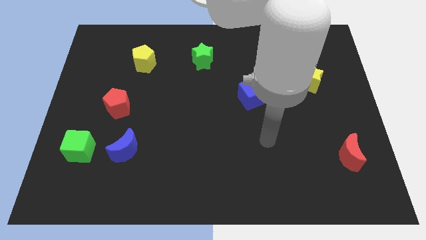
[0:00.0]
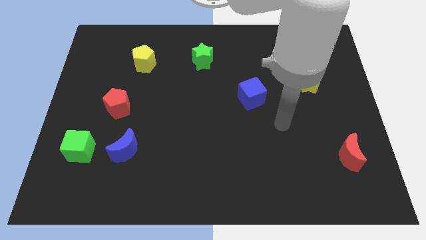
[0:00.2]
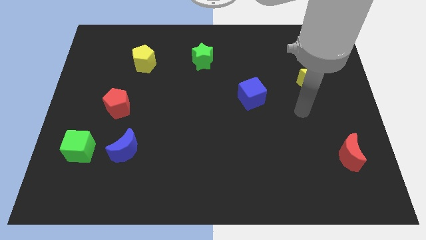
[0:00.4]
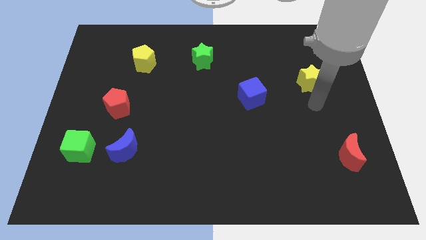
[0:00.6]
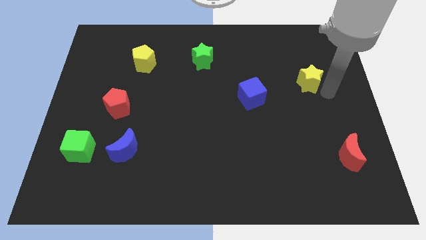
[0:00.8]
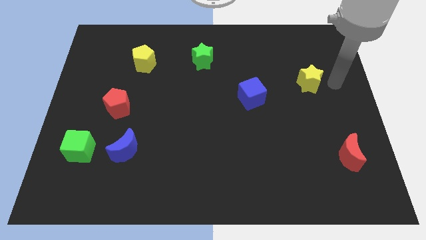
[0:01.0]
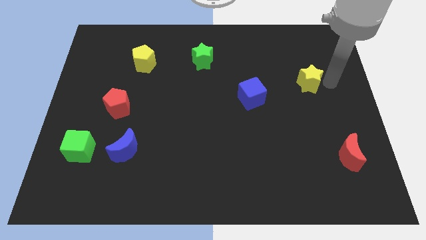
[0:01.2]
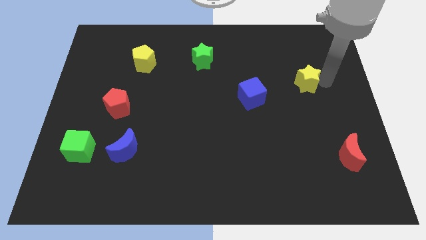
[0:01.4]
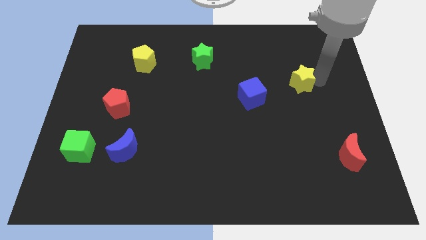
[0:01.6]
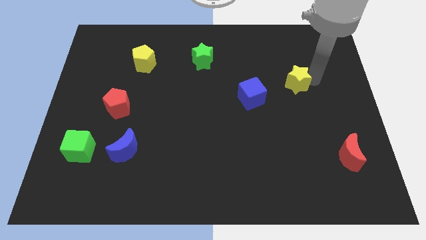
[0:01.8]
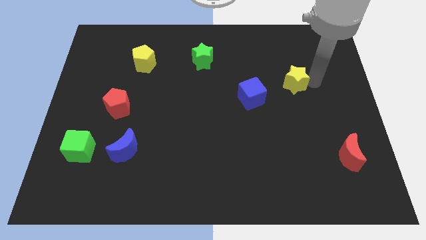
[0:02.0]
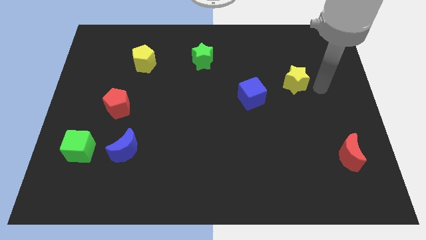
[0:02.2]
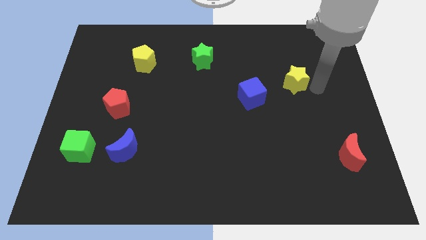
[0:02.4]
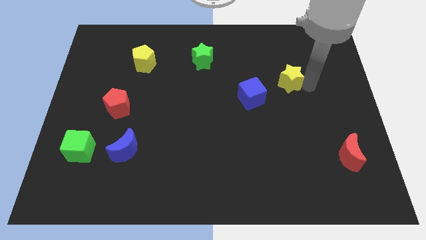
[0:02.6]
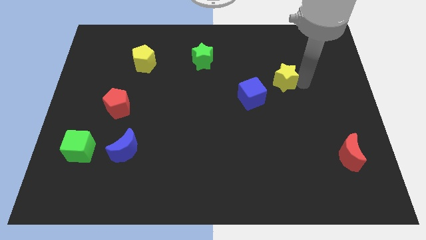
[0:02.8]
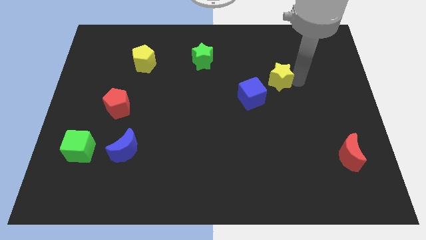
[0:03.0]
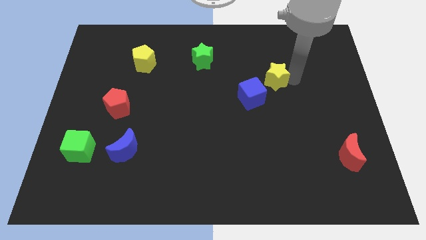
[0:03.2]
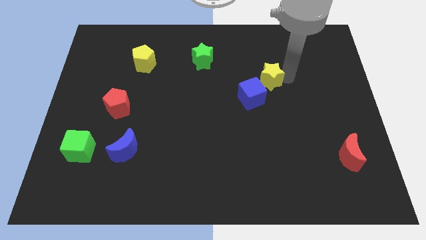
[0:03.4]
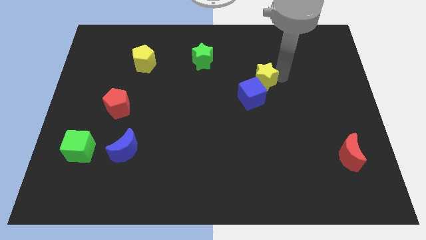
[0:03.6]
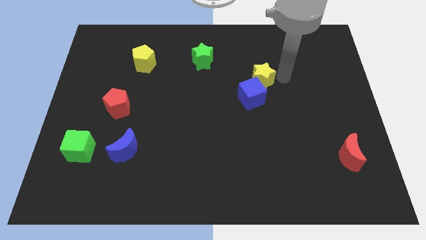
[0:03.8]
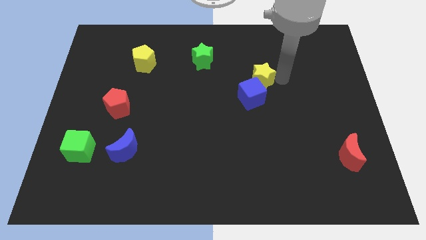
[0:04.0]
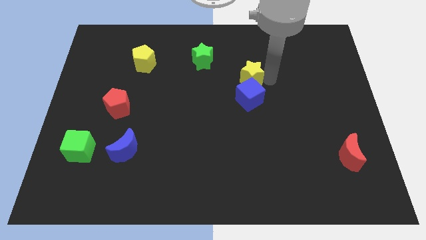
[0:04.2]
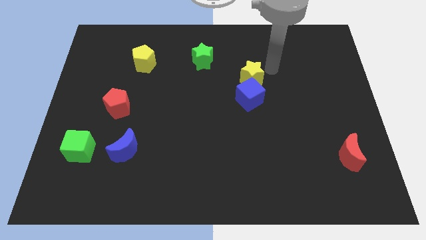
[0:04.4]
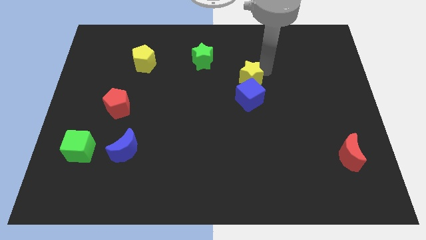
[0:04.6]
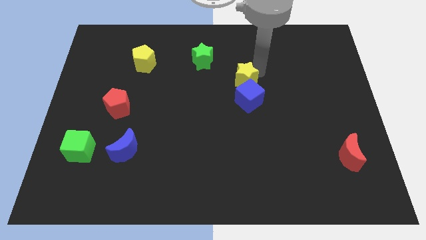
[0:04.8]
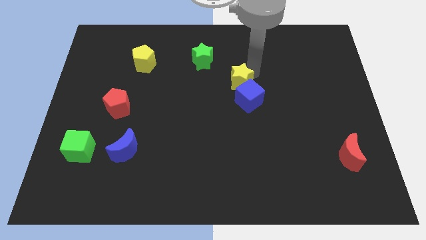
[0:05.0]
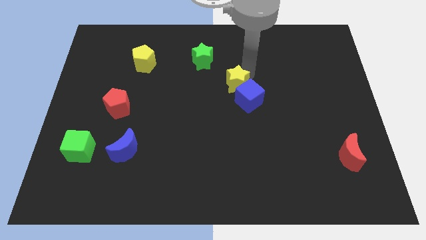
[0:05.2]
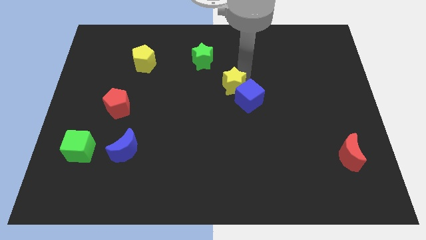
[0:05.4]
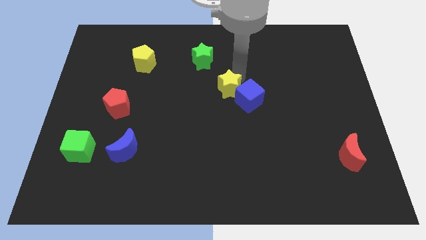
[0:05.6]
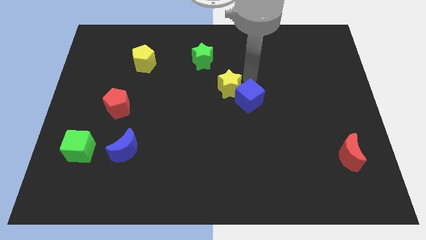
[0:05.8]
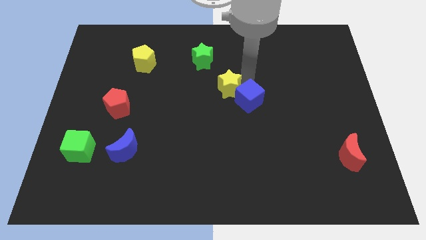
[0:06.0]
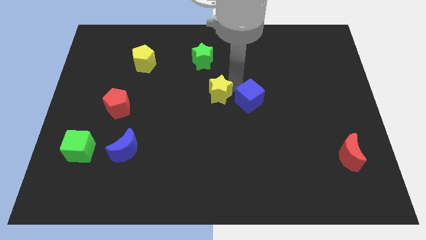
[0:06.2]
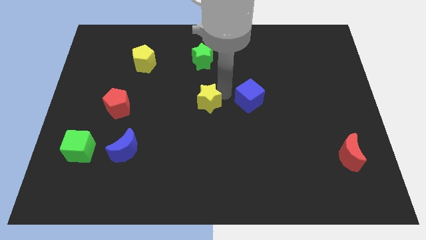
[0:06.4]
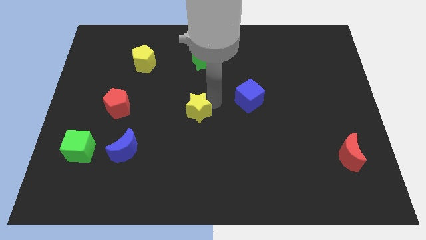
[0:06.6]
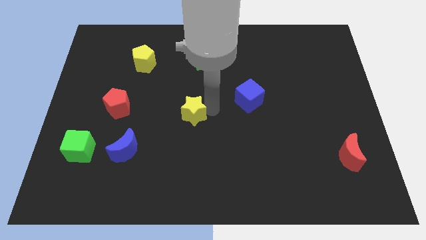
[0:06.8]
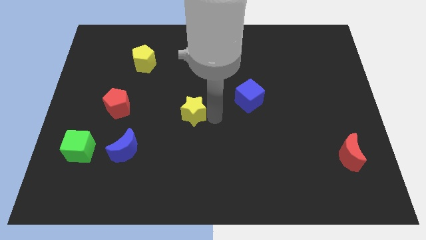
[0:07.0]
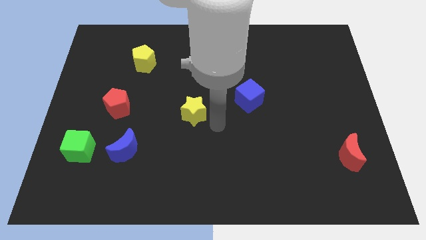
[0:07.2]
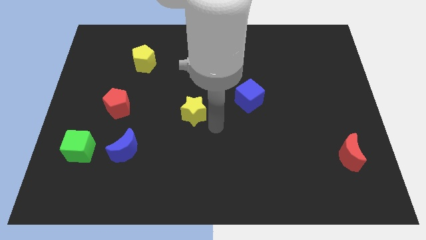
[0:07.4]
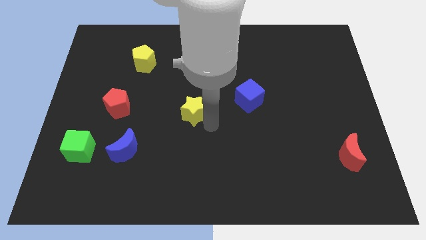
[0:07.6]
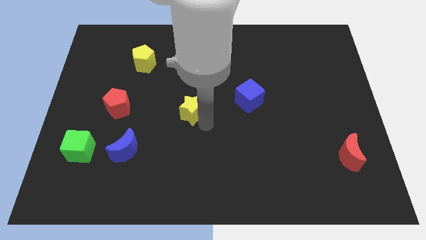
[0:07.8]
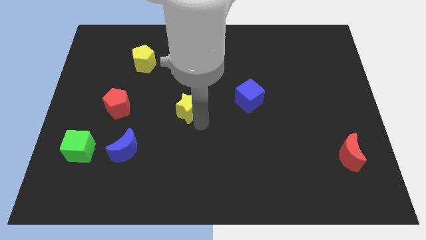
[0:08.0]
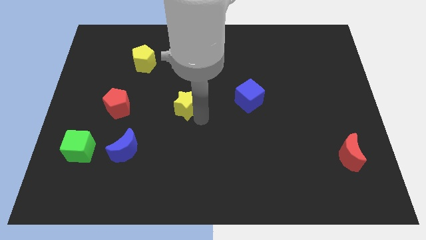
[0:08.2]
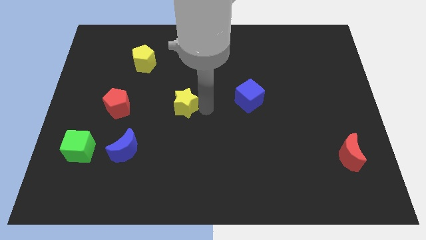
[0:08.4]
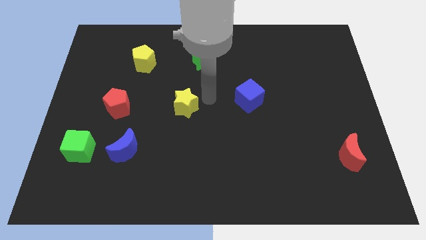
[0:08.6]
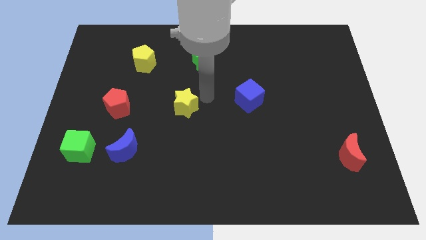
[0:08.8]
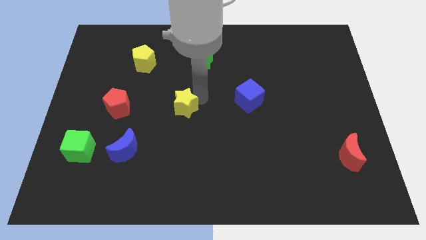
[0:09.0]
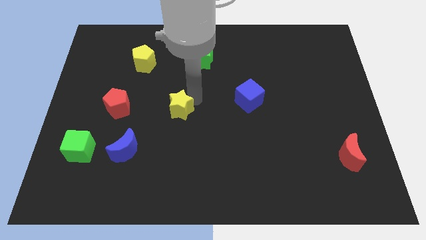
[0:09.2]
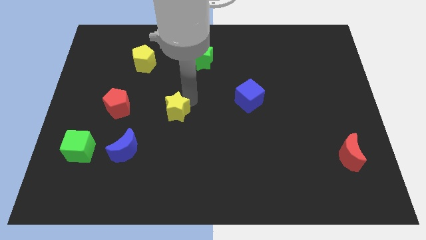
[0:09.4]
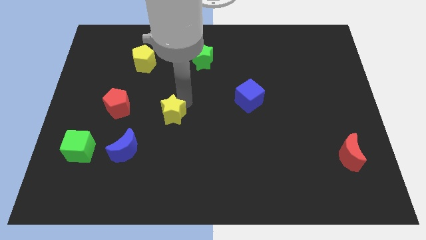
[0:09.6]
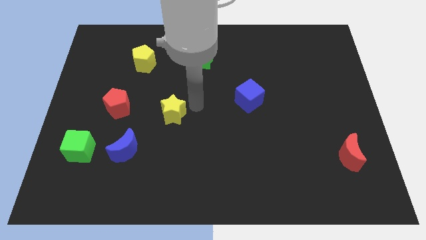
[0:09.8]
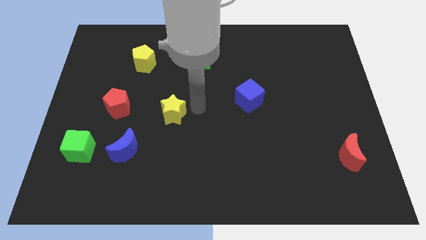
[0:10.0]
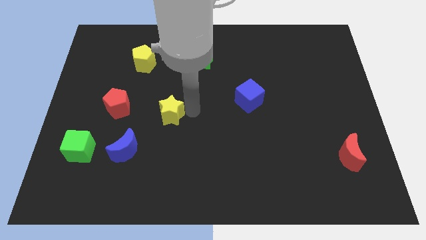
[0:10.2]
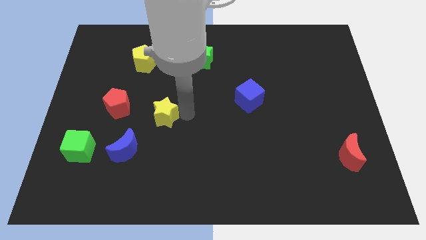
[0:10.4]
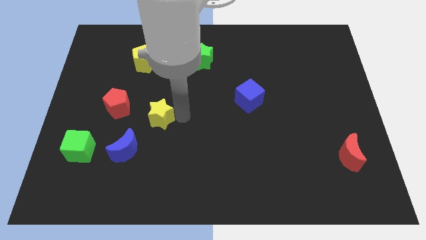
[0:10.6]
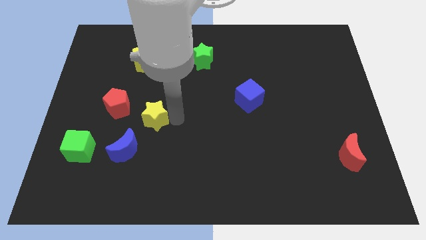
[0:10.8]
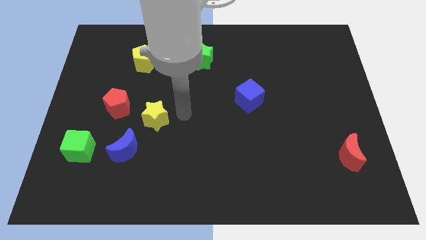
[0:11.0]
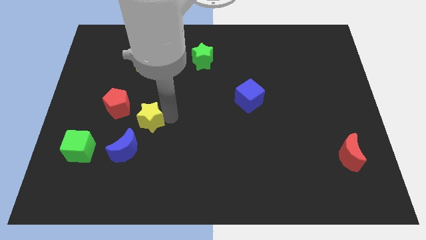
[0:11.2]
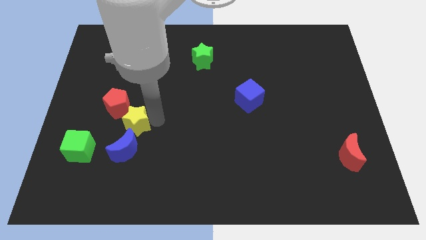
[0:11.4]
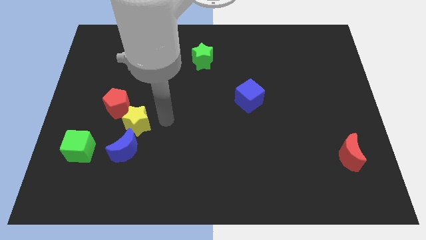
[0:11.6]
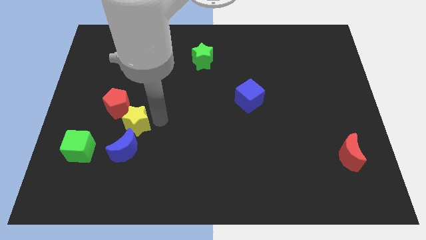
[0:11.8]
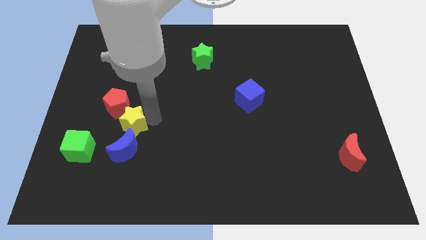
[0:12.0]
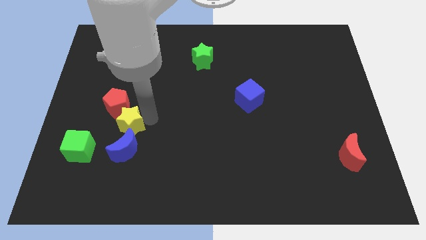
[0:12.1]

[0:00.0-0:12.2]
slide the yellow star to the top right of the green cube

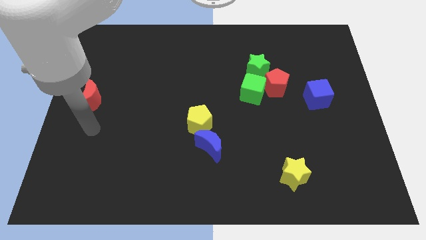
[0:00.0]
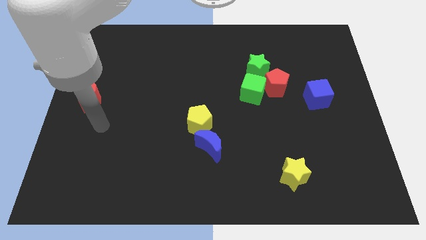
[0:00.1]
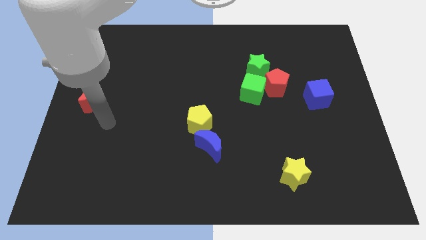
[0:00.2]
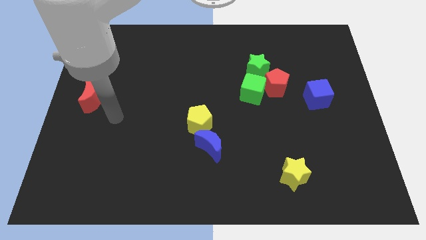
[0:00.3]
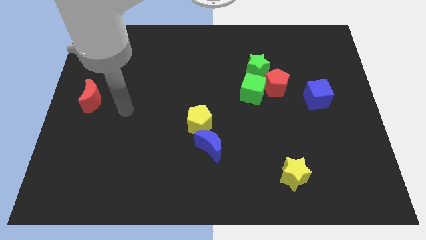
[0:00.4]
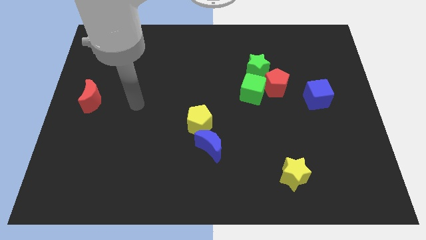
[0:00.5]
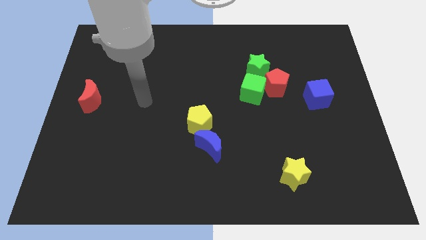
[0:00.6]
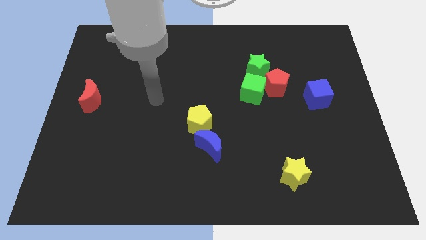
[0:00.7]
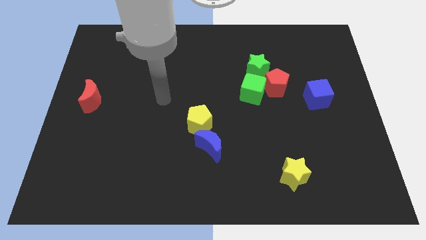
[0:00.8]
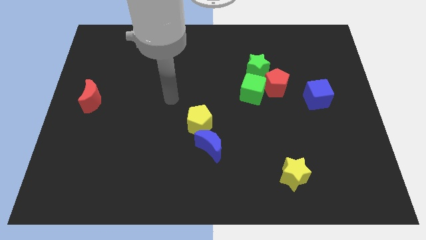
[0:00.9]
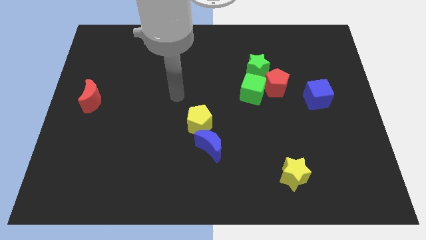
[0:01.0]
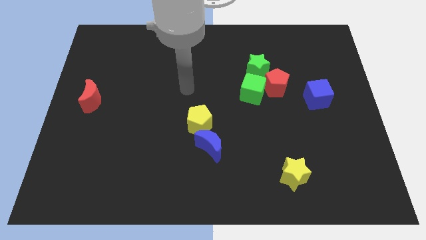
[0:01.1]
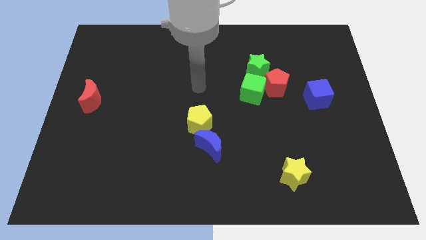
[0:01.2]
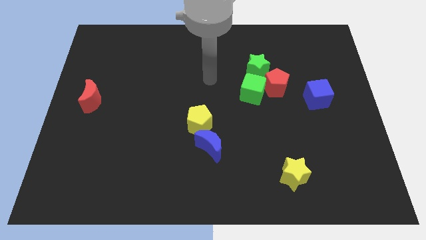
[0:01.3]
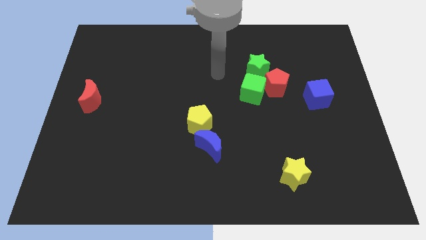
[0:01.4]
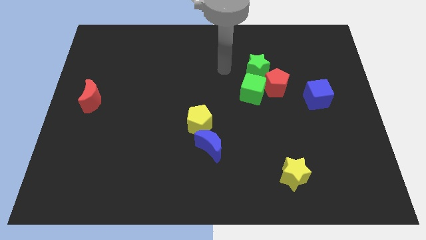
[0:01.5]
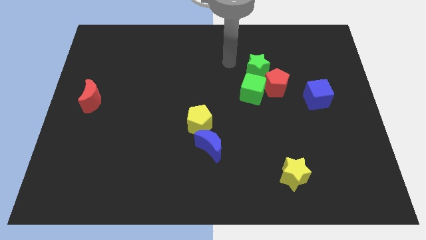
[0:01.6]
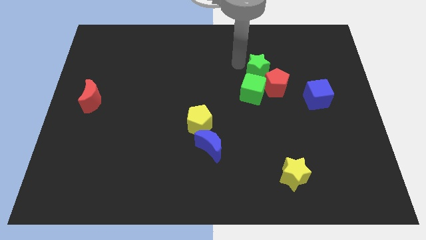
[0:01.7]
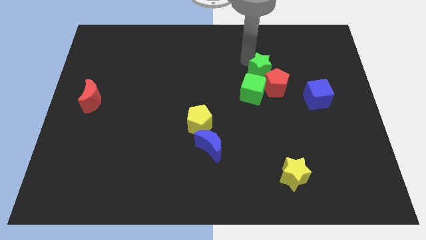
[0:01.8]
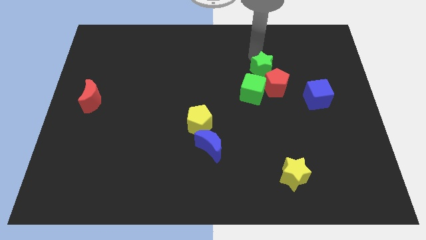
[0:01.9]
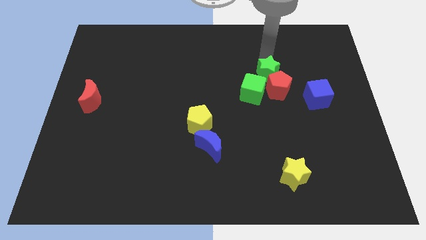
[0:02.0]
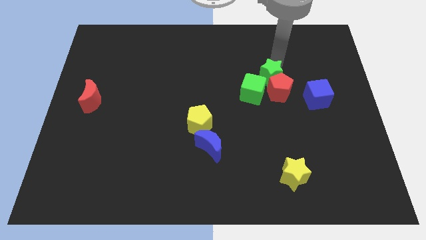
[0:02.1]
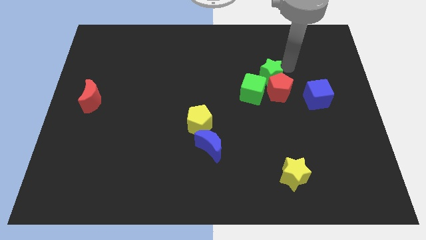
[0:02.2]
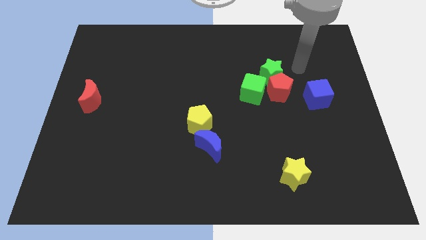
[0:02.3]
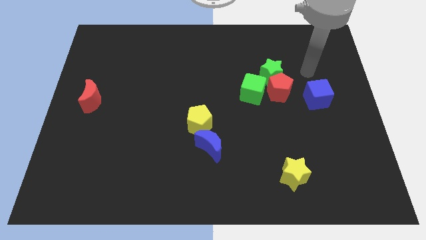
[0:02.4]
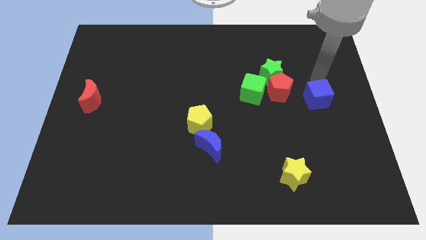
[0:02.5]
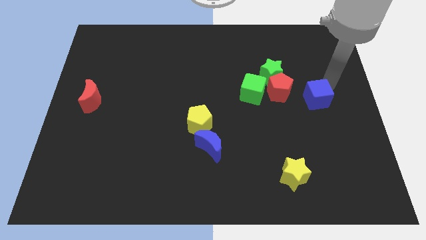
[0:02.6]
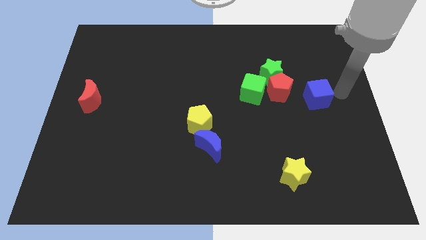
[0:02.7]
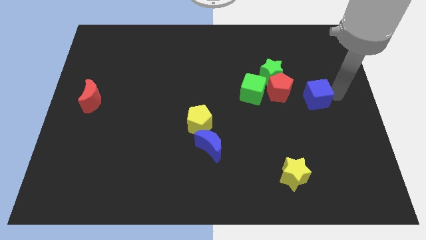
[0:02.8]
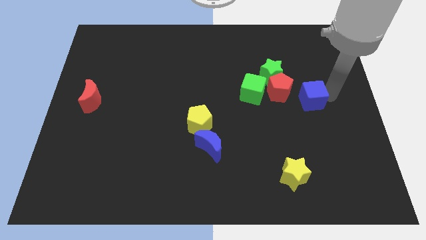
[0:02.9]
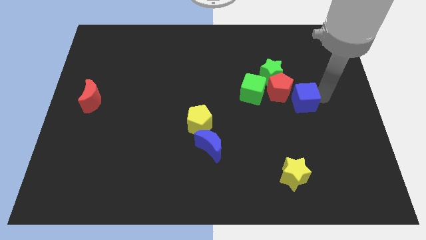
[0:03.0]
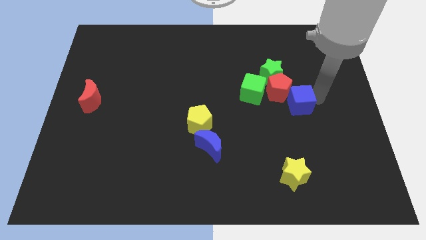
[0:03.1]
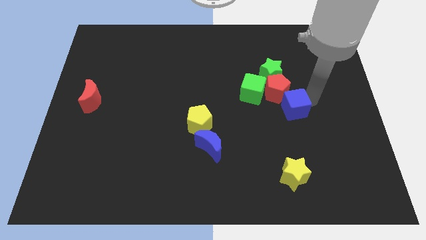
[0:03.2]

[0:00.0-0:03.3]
slide the blue cube to the bottom of the green star
